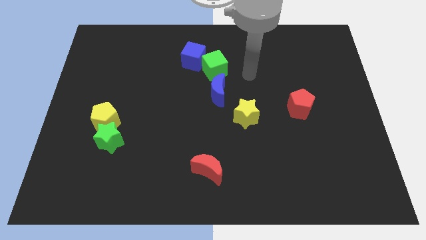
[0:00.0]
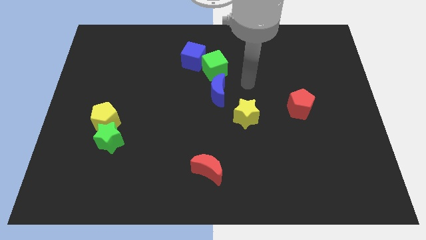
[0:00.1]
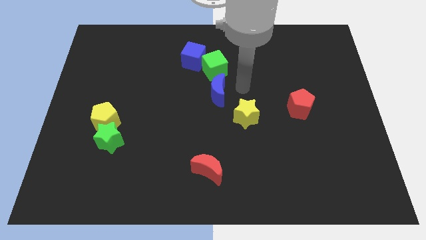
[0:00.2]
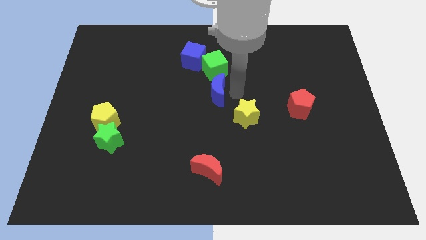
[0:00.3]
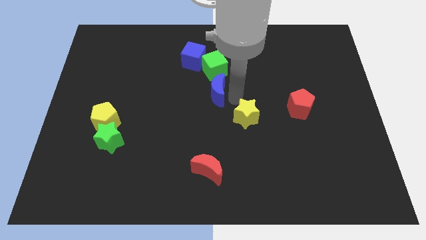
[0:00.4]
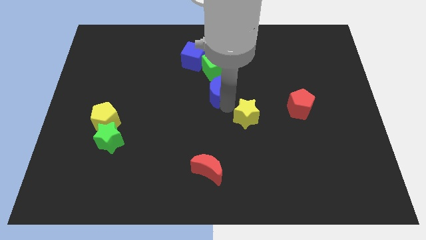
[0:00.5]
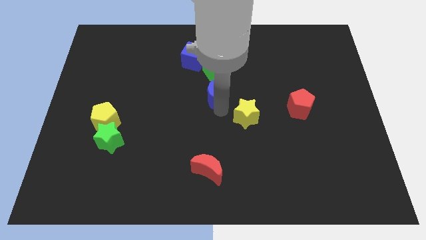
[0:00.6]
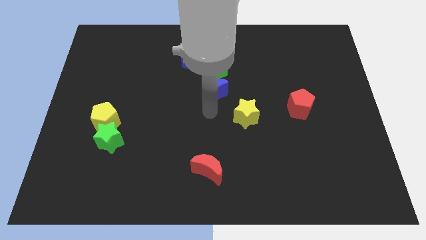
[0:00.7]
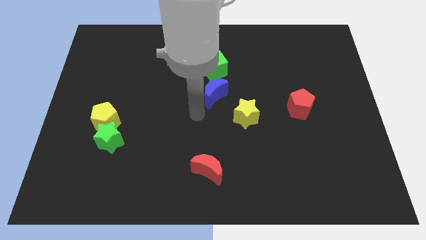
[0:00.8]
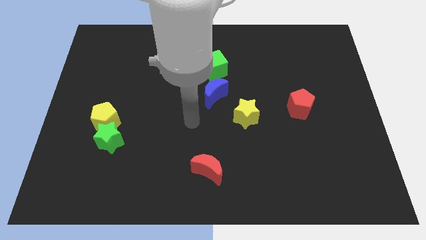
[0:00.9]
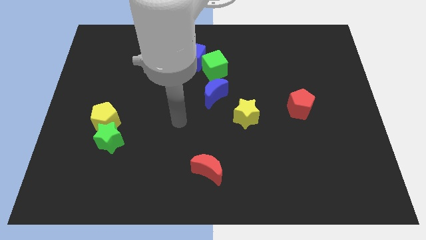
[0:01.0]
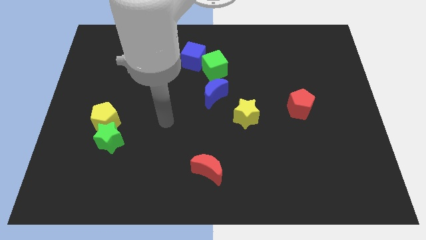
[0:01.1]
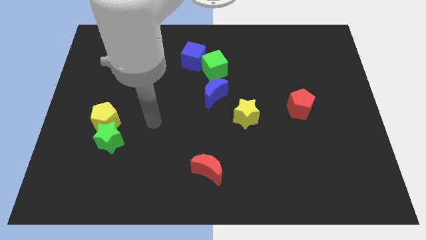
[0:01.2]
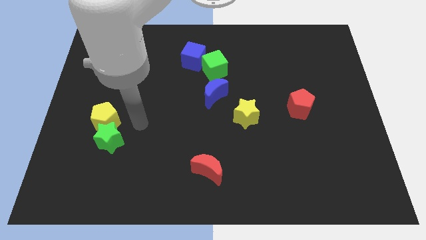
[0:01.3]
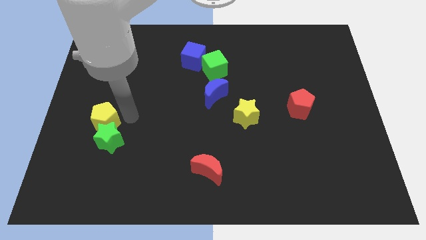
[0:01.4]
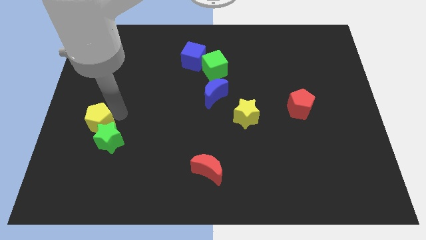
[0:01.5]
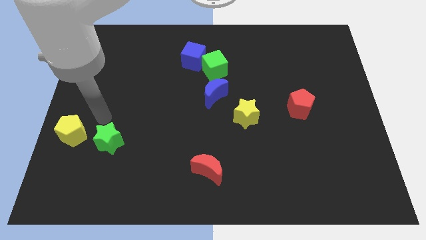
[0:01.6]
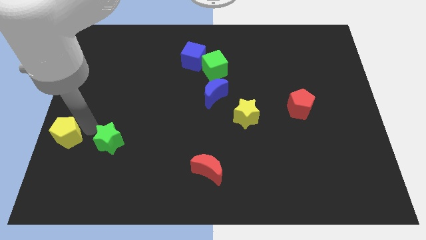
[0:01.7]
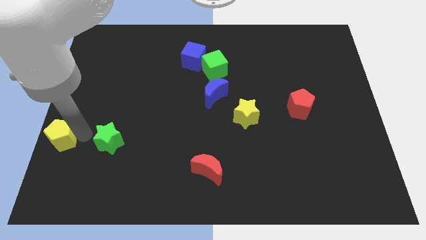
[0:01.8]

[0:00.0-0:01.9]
move the green star away from the yellow pentagon

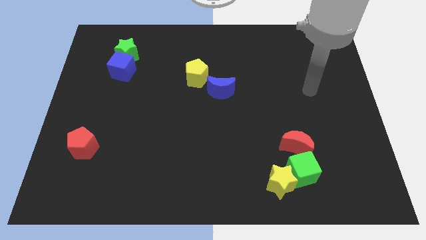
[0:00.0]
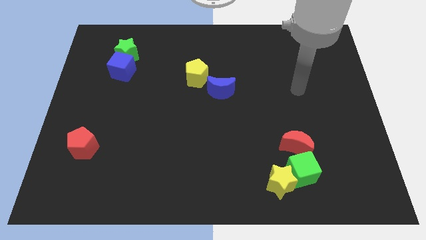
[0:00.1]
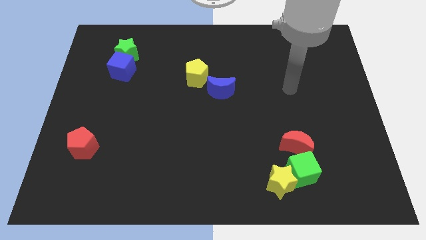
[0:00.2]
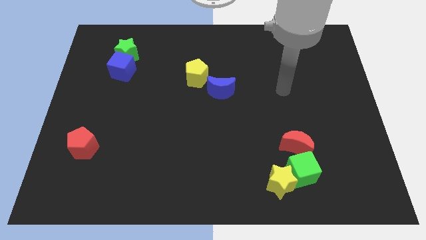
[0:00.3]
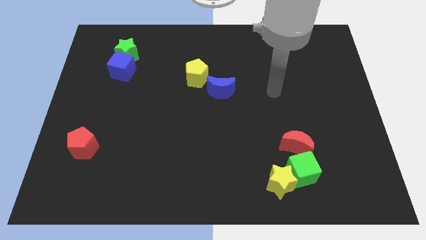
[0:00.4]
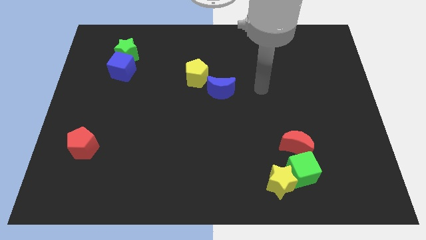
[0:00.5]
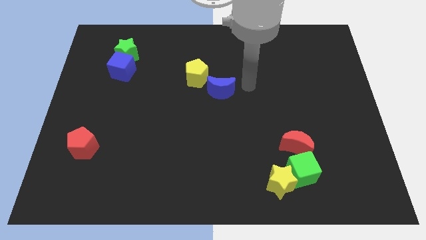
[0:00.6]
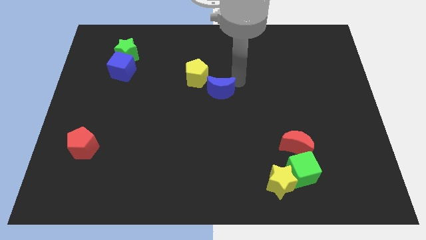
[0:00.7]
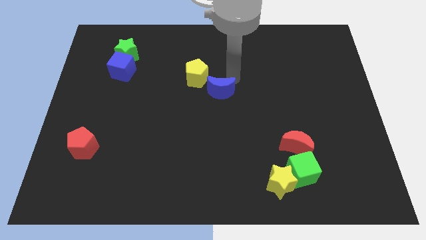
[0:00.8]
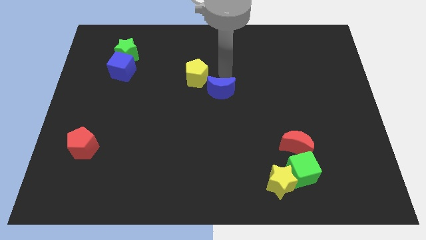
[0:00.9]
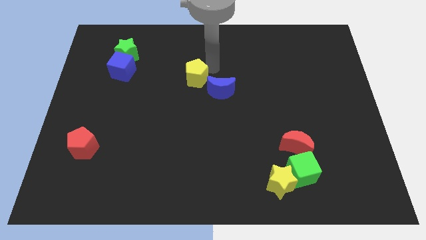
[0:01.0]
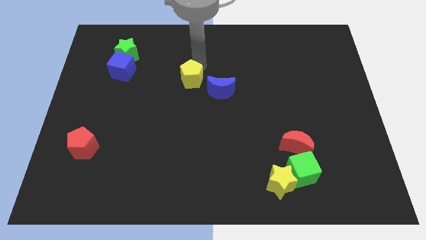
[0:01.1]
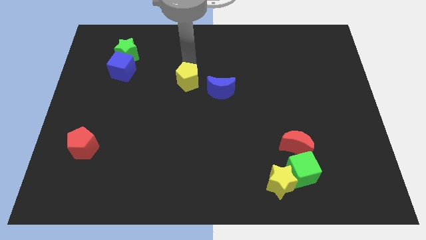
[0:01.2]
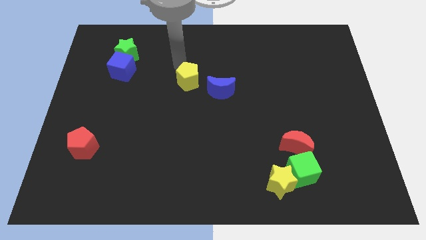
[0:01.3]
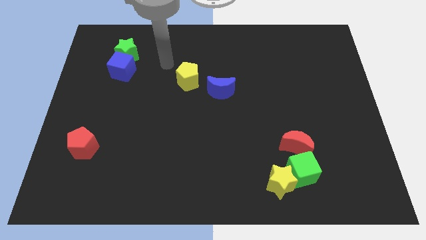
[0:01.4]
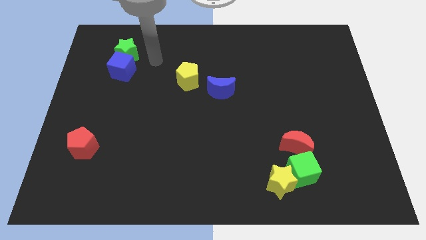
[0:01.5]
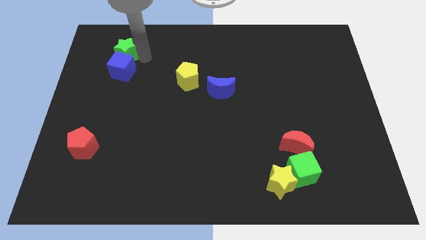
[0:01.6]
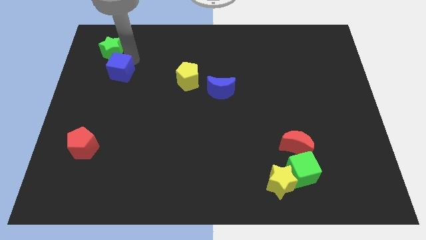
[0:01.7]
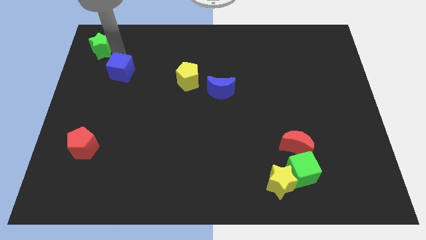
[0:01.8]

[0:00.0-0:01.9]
move the blue cube away from the green star

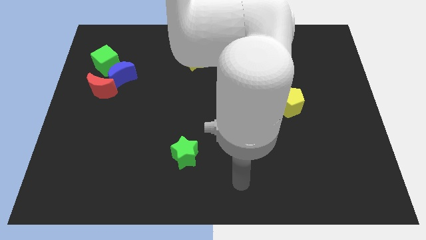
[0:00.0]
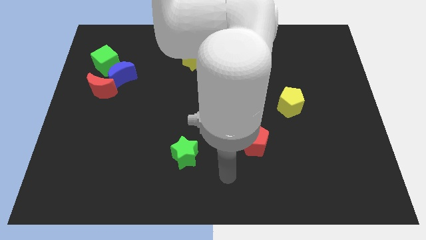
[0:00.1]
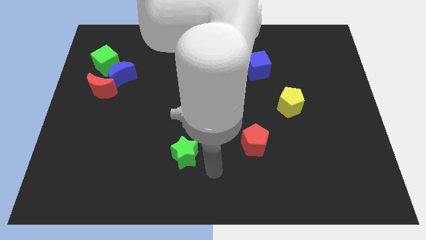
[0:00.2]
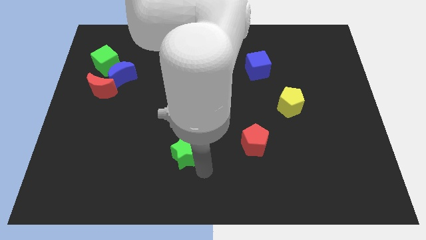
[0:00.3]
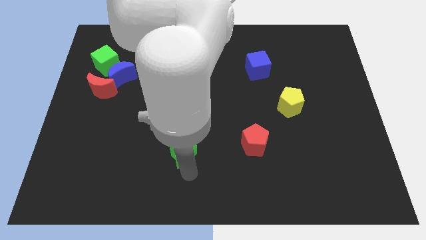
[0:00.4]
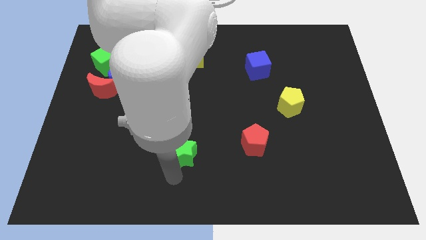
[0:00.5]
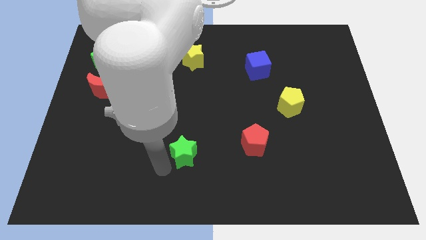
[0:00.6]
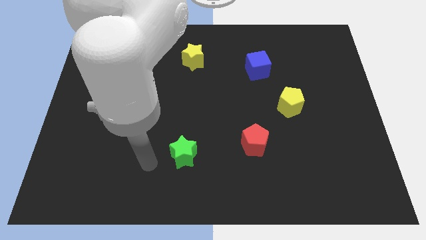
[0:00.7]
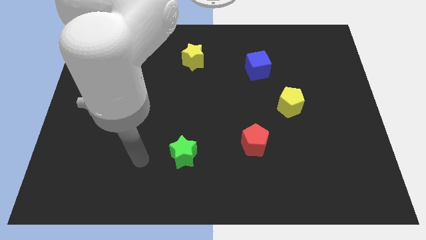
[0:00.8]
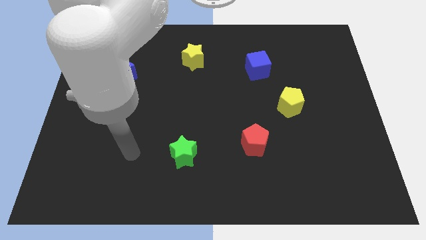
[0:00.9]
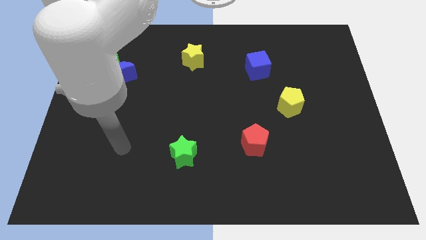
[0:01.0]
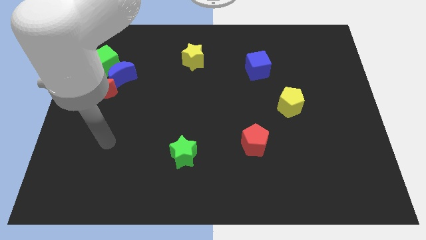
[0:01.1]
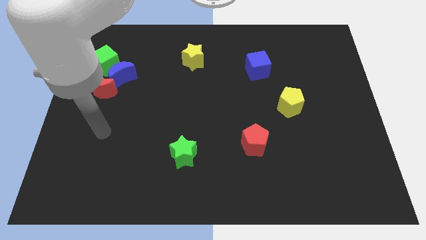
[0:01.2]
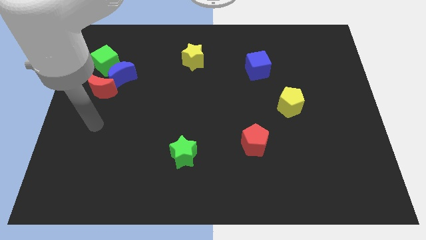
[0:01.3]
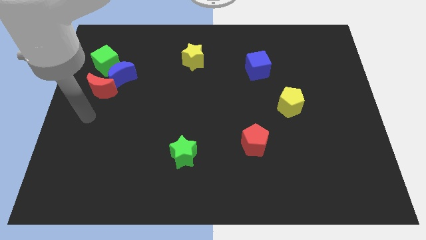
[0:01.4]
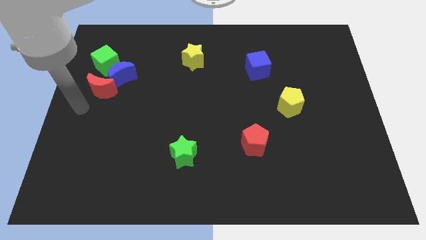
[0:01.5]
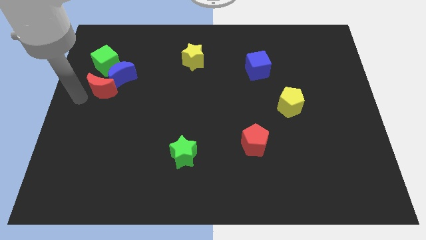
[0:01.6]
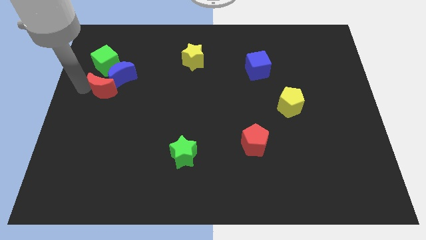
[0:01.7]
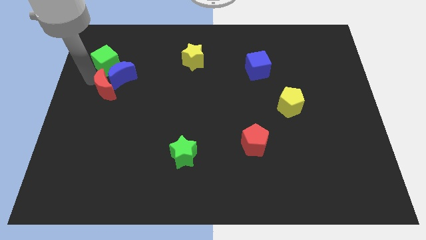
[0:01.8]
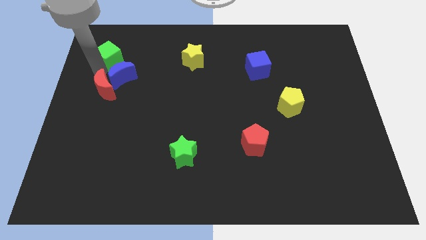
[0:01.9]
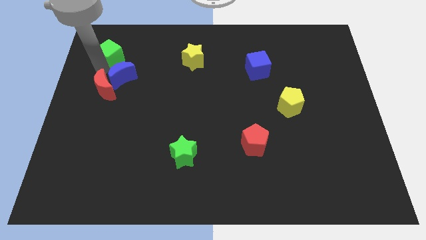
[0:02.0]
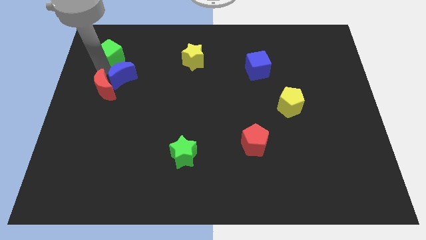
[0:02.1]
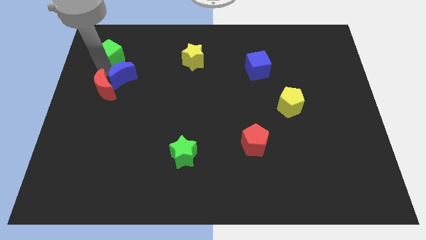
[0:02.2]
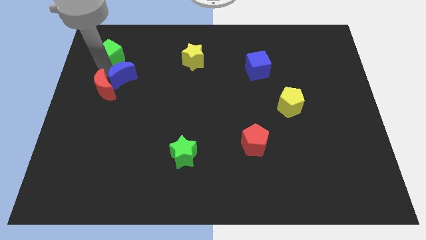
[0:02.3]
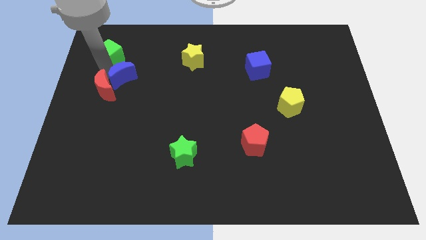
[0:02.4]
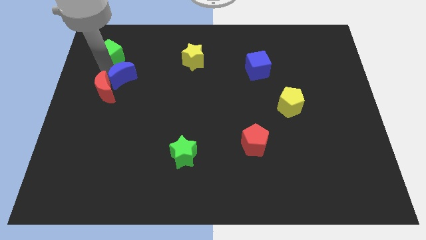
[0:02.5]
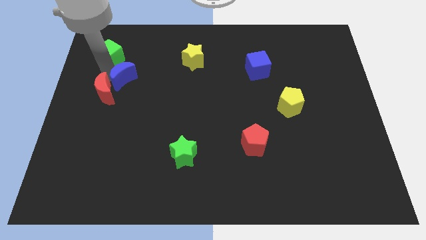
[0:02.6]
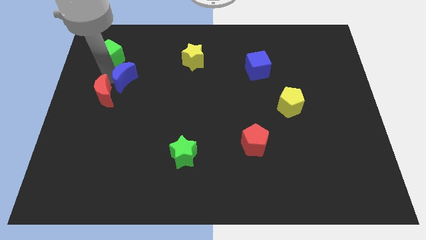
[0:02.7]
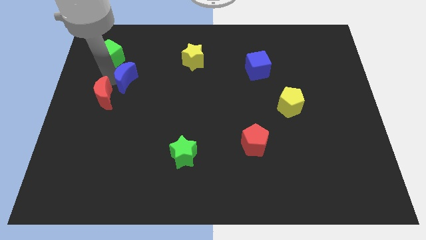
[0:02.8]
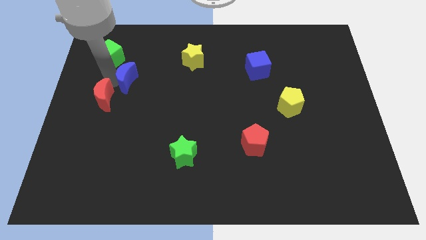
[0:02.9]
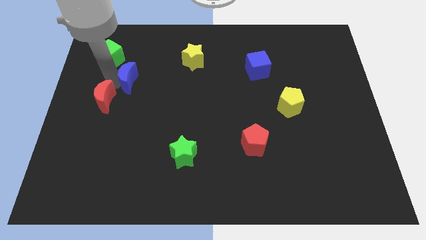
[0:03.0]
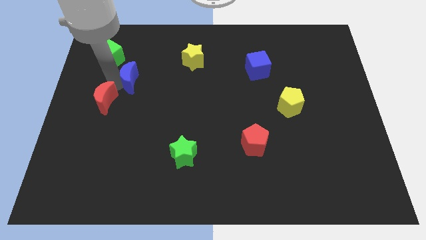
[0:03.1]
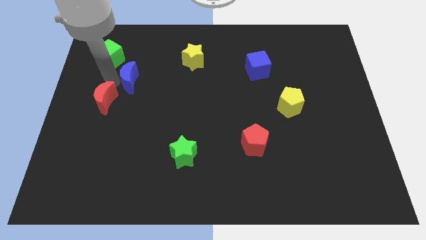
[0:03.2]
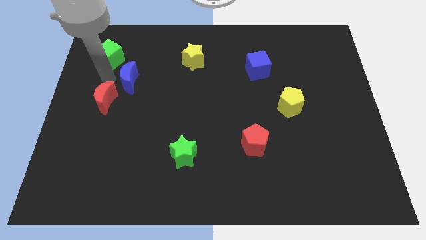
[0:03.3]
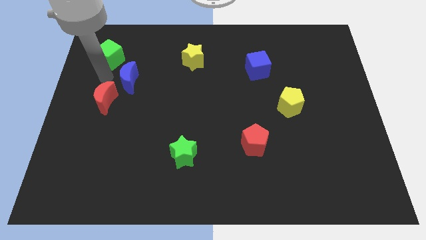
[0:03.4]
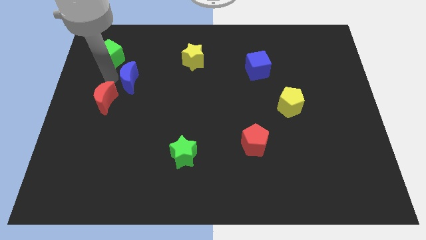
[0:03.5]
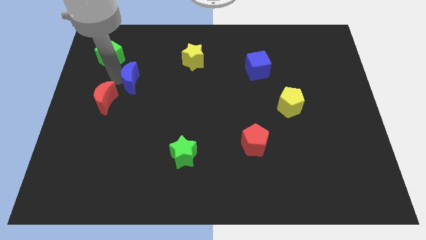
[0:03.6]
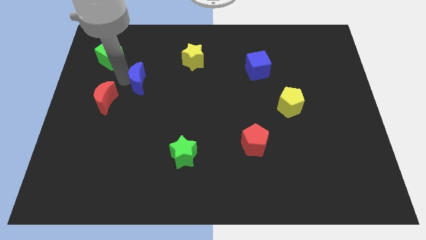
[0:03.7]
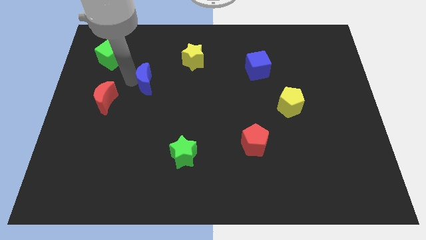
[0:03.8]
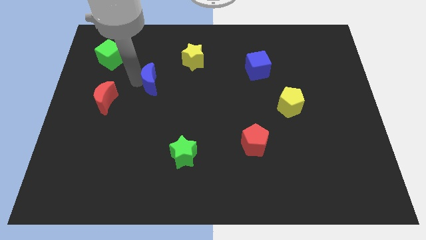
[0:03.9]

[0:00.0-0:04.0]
pull the blue moon apart from the red moon and green cube

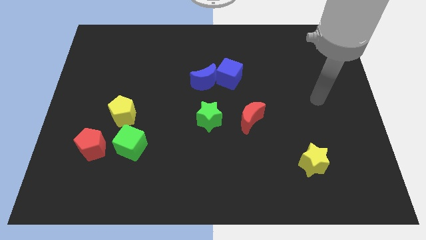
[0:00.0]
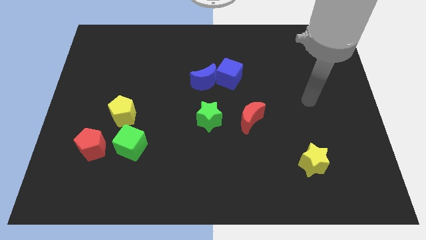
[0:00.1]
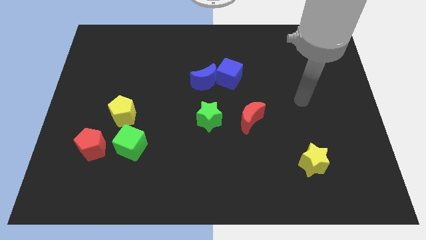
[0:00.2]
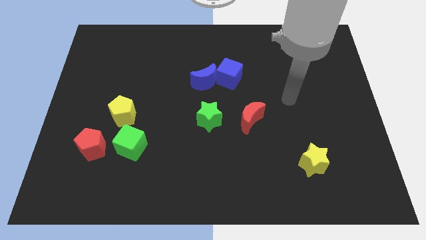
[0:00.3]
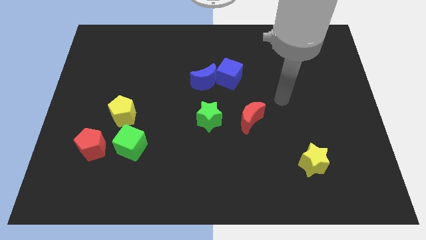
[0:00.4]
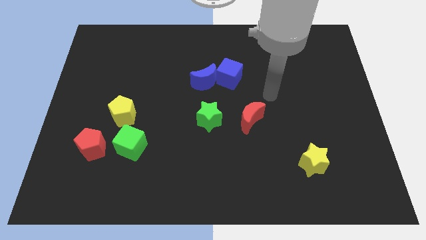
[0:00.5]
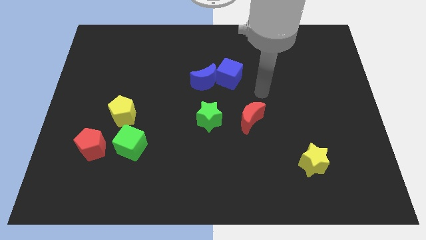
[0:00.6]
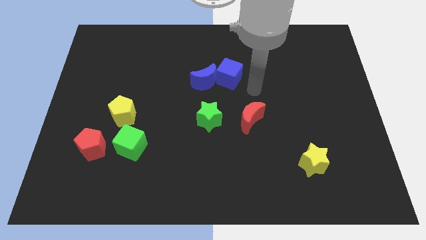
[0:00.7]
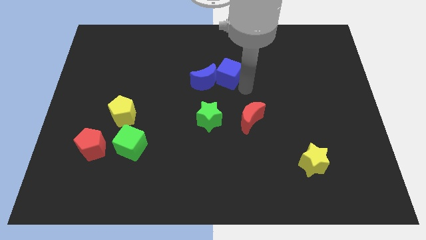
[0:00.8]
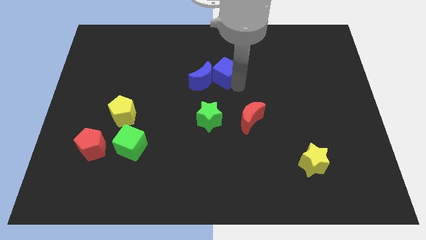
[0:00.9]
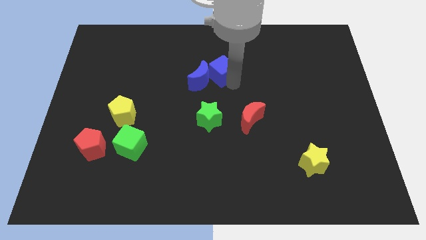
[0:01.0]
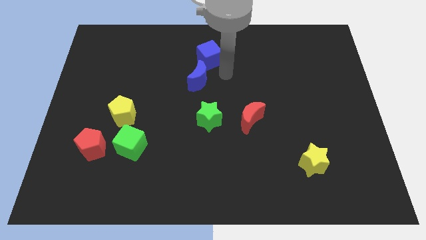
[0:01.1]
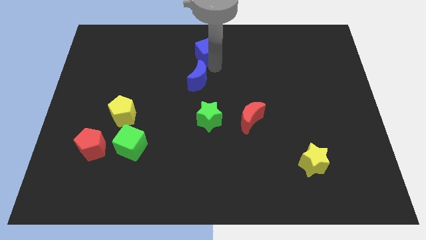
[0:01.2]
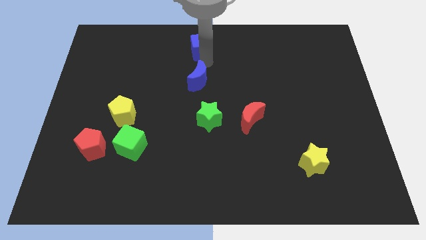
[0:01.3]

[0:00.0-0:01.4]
pull the blue moon apart from the blue cube

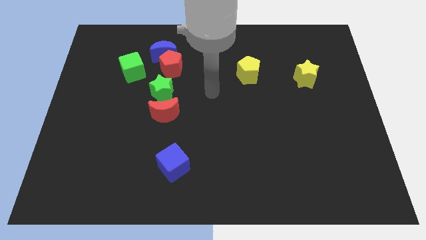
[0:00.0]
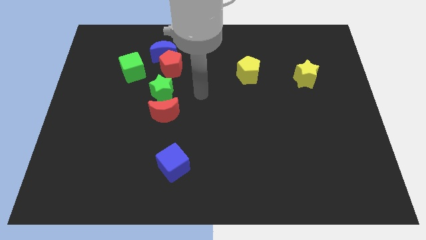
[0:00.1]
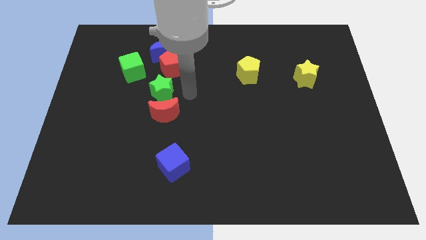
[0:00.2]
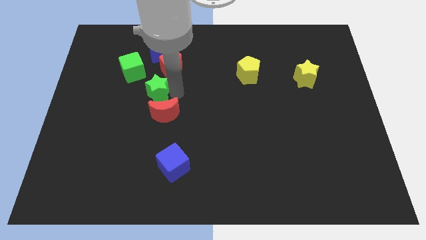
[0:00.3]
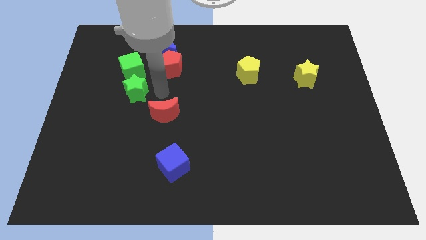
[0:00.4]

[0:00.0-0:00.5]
separate the red moon from the green star
